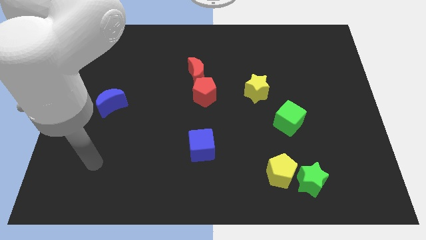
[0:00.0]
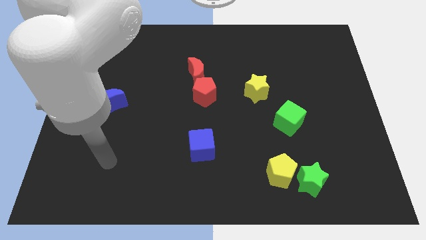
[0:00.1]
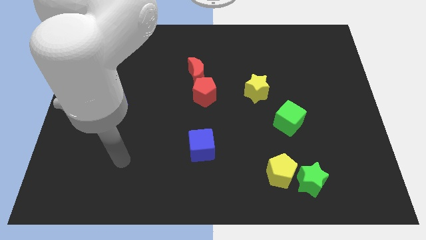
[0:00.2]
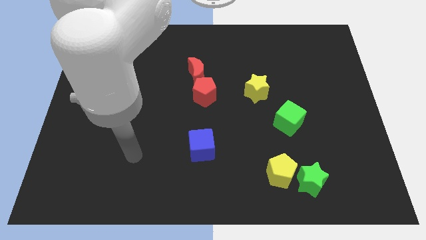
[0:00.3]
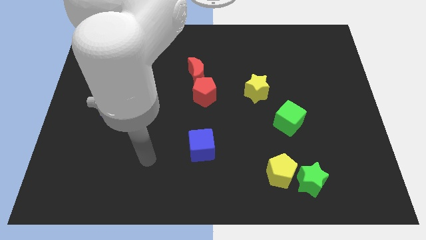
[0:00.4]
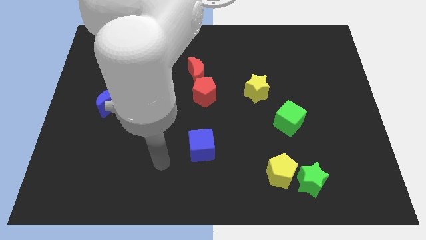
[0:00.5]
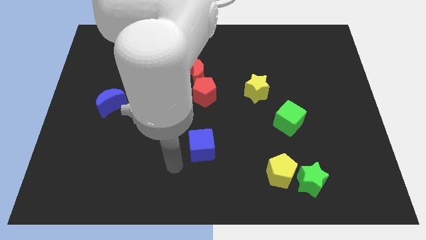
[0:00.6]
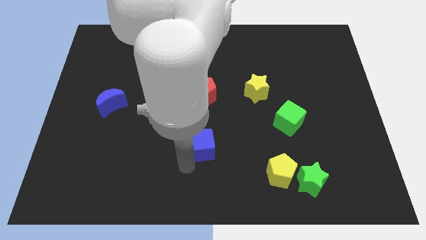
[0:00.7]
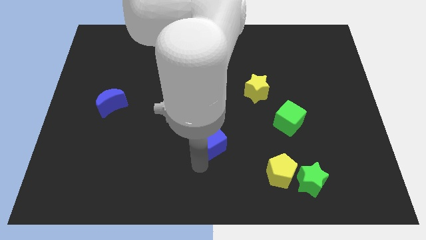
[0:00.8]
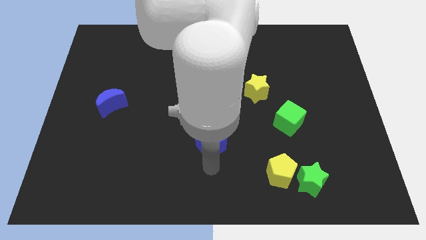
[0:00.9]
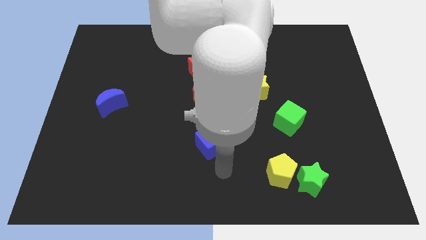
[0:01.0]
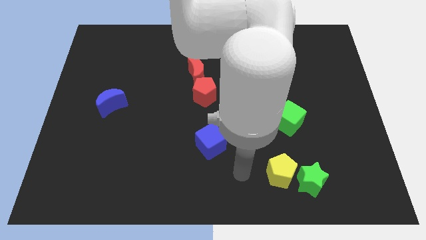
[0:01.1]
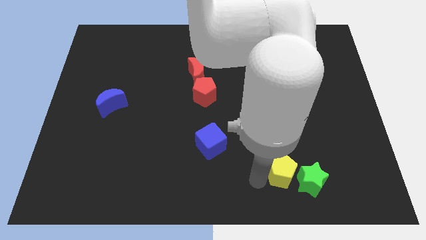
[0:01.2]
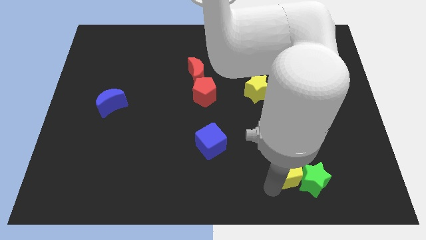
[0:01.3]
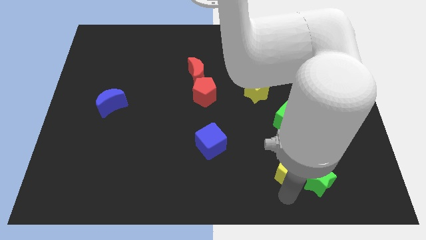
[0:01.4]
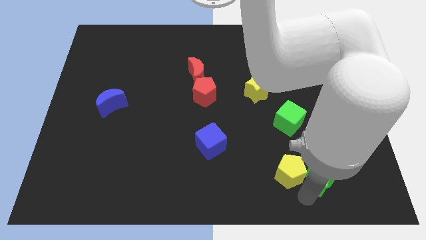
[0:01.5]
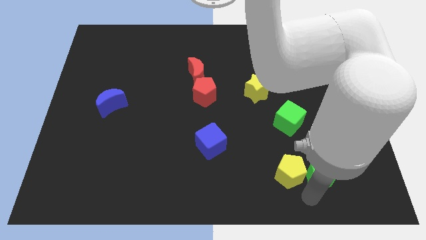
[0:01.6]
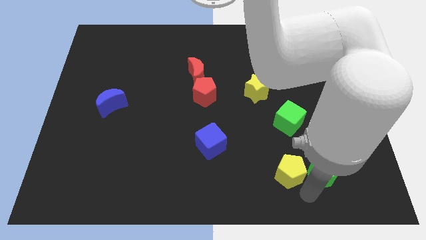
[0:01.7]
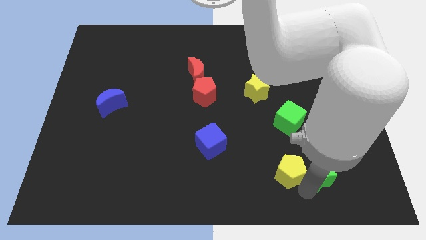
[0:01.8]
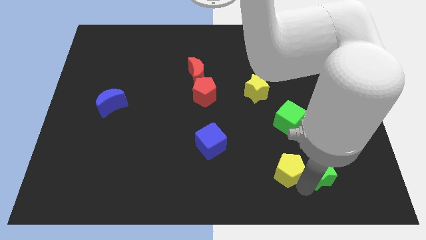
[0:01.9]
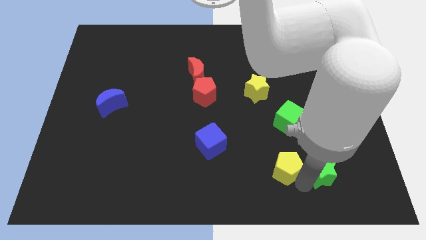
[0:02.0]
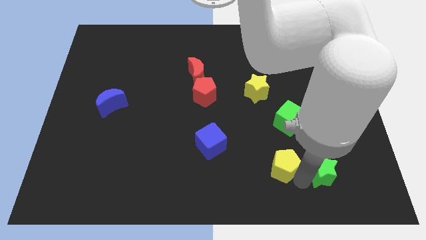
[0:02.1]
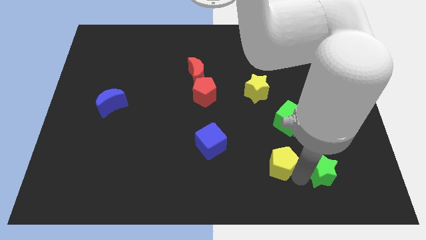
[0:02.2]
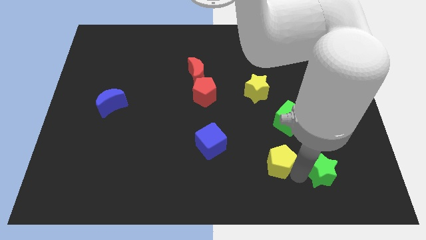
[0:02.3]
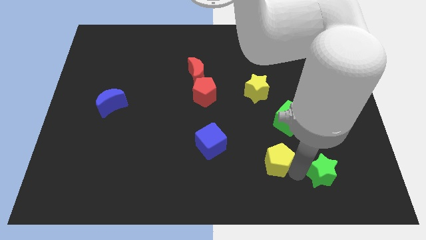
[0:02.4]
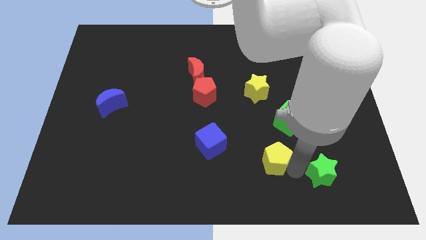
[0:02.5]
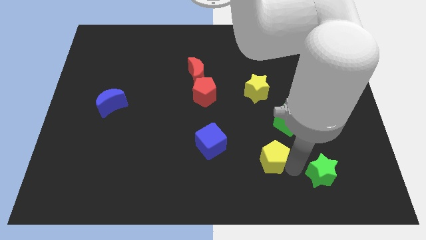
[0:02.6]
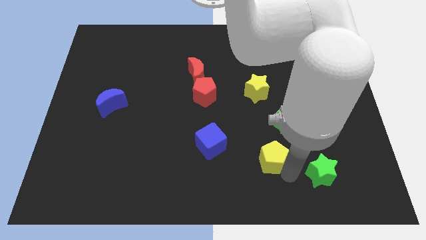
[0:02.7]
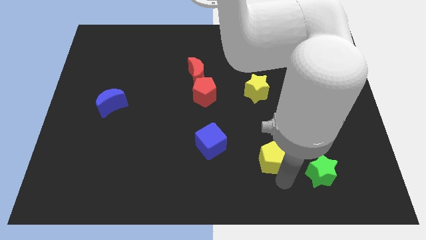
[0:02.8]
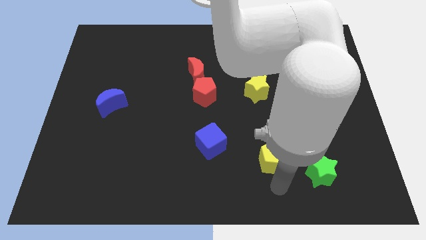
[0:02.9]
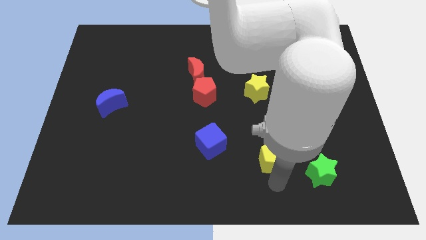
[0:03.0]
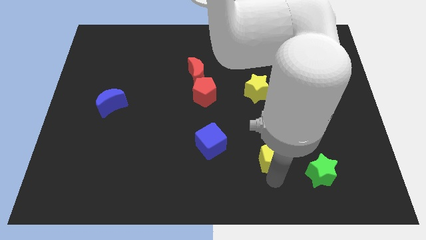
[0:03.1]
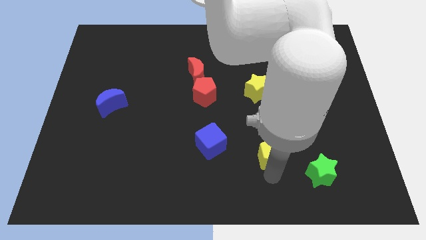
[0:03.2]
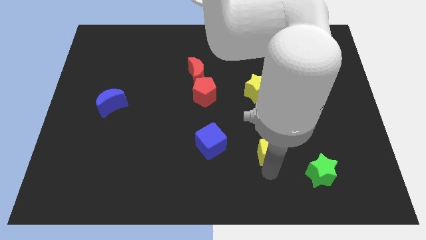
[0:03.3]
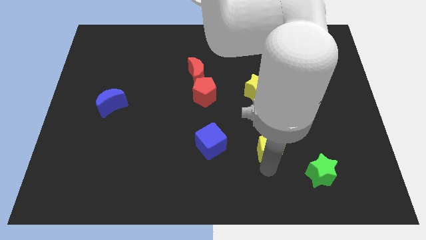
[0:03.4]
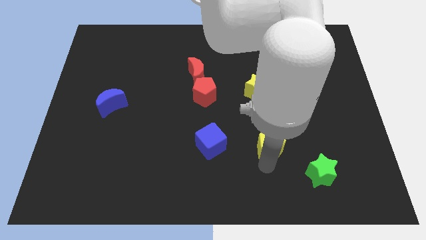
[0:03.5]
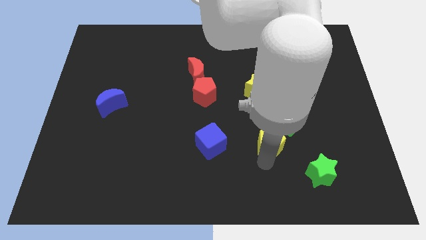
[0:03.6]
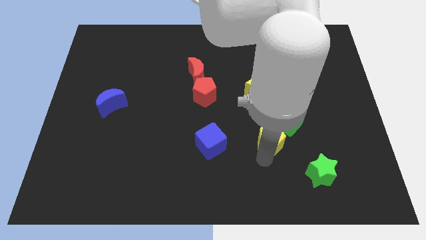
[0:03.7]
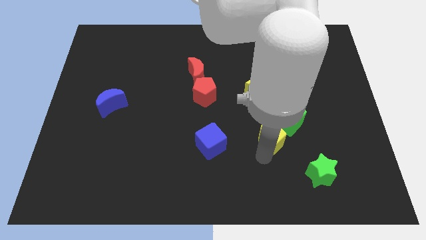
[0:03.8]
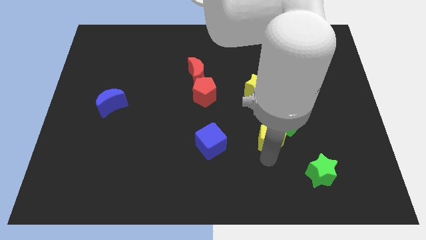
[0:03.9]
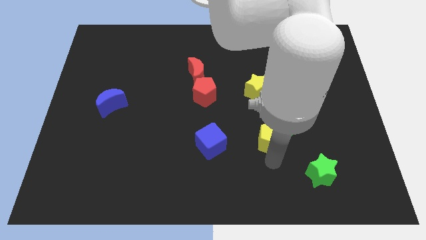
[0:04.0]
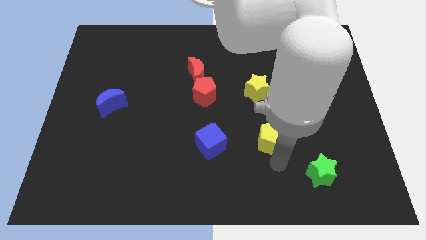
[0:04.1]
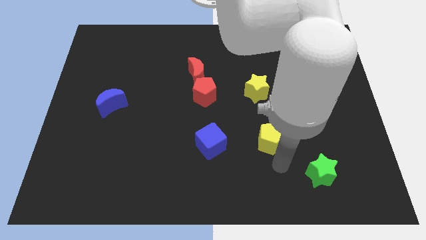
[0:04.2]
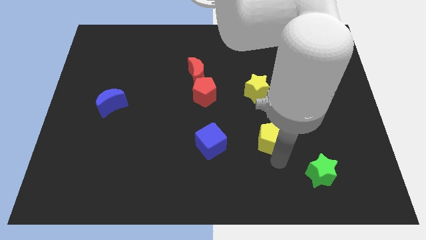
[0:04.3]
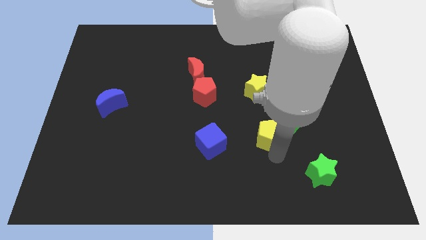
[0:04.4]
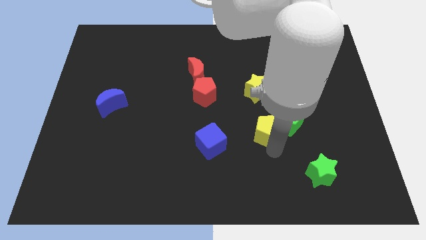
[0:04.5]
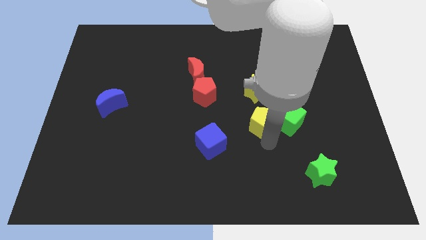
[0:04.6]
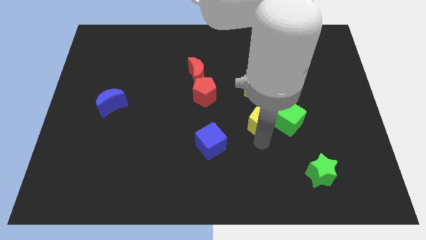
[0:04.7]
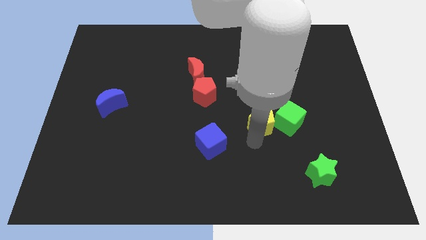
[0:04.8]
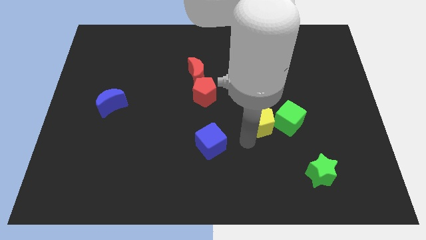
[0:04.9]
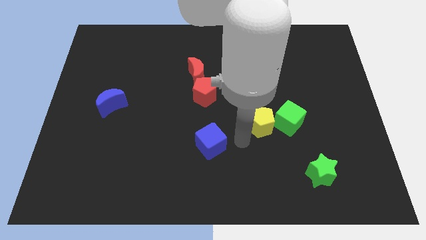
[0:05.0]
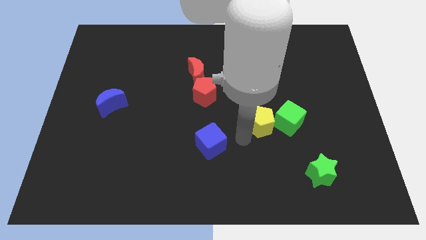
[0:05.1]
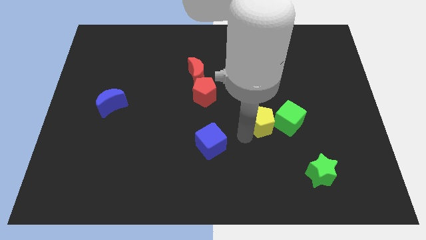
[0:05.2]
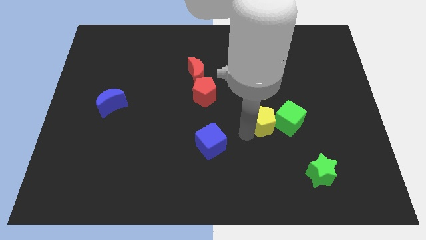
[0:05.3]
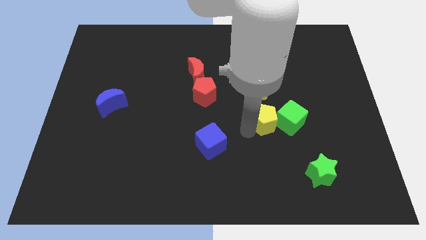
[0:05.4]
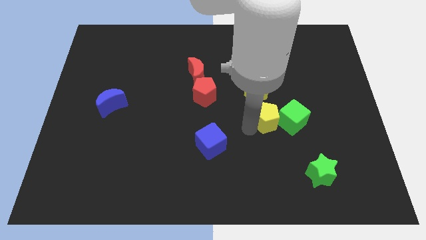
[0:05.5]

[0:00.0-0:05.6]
move the yellow pentagon to the bottom right side of the yellow star

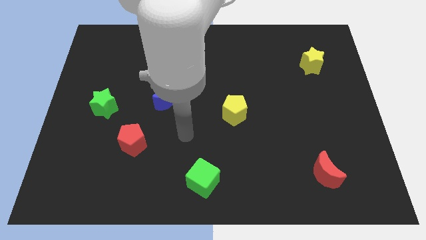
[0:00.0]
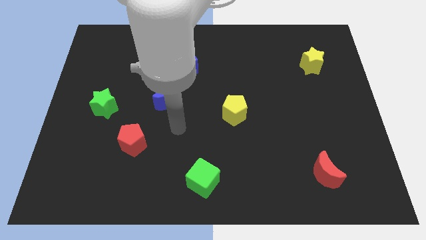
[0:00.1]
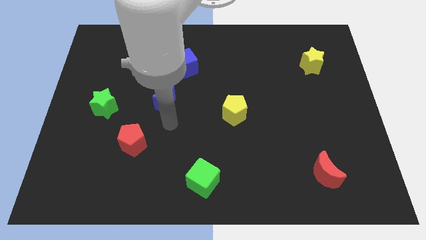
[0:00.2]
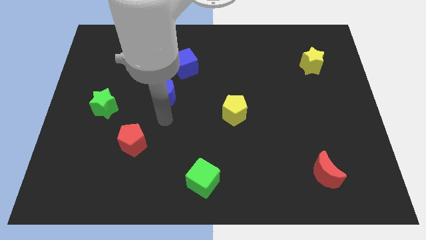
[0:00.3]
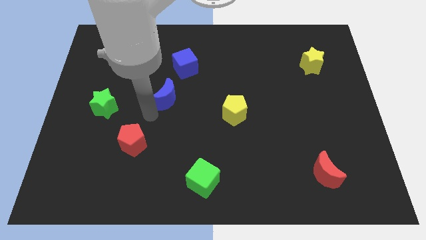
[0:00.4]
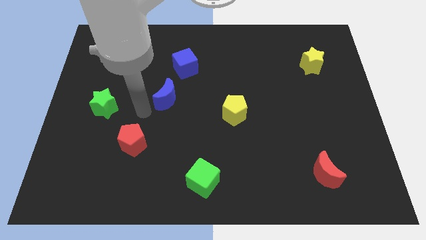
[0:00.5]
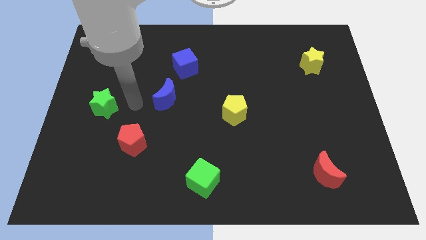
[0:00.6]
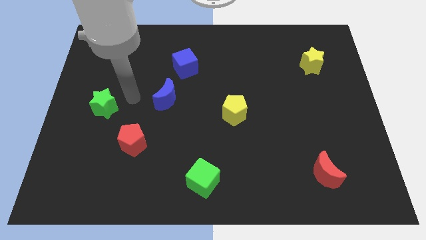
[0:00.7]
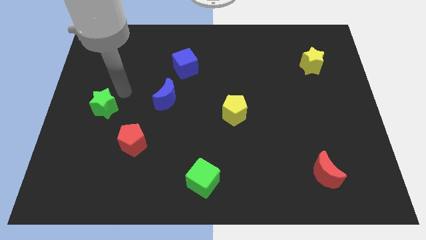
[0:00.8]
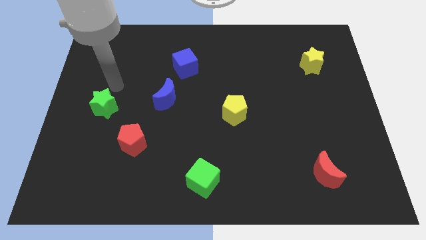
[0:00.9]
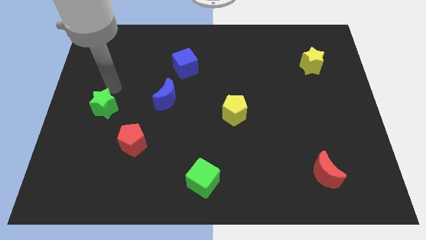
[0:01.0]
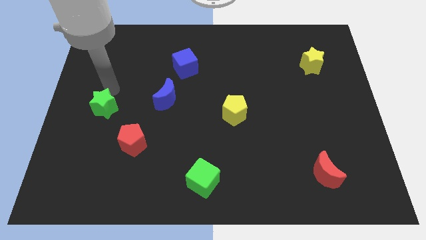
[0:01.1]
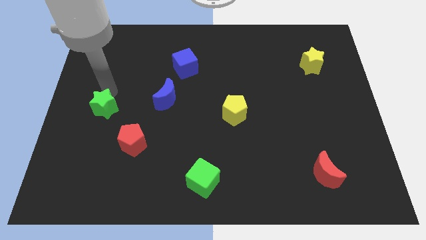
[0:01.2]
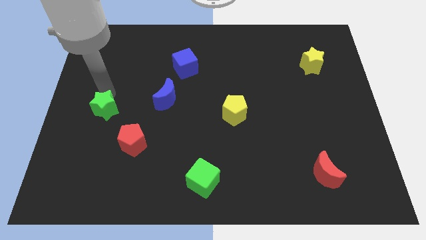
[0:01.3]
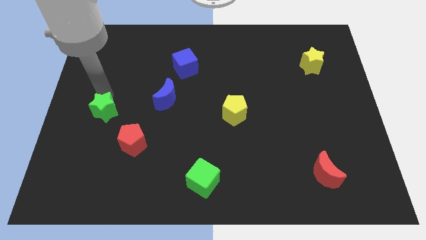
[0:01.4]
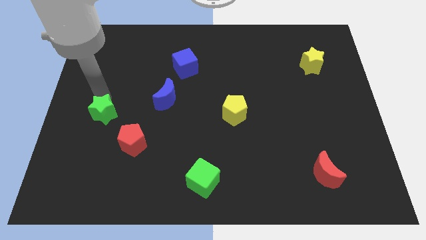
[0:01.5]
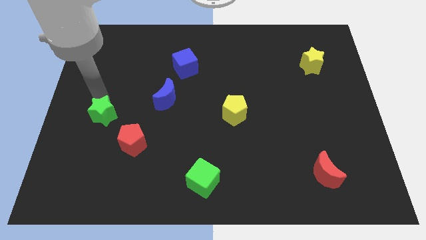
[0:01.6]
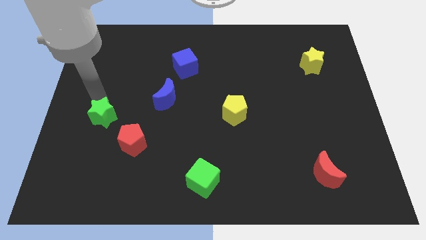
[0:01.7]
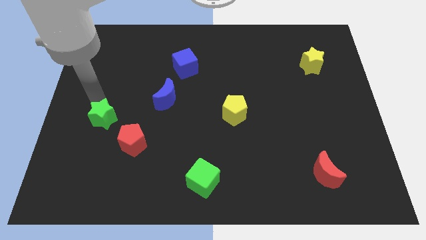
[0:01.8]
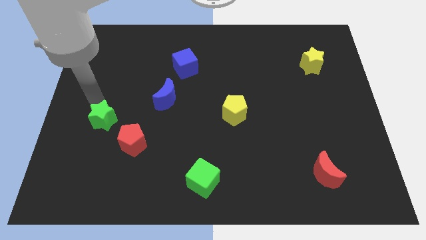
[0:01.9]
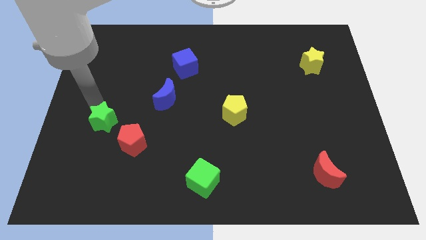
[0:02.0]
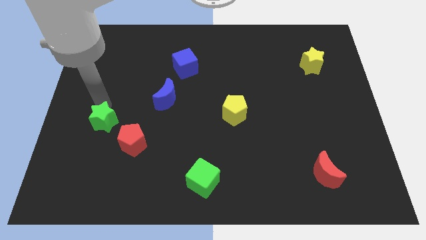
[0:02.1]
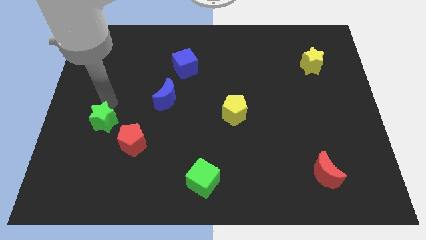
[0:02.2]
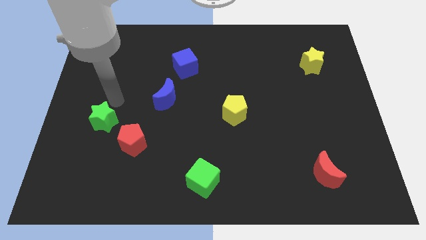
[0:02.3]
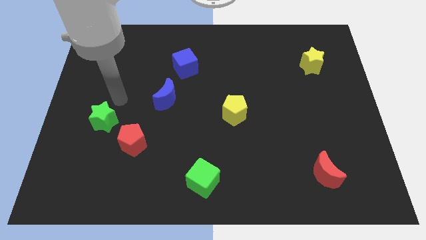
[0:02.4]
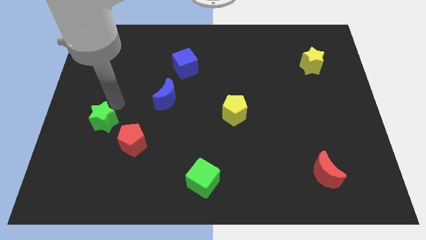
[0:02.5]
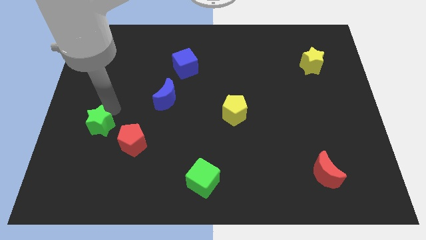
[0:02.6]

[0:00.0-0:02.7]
put the green star left of the red pentagon
